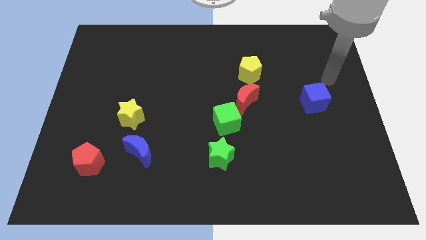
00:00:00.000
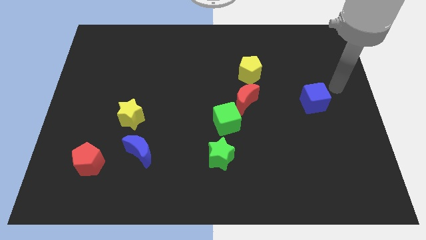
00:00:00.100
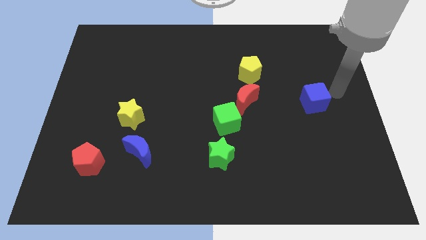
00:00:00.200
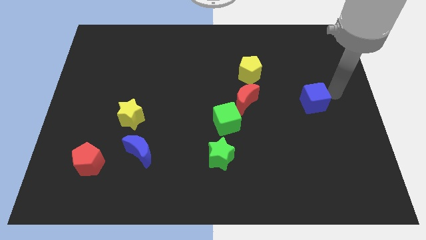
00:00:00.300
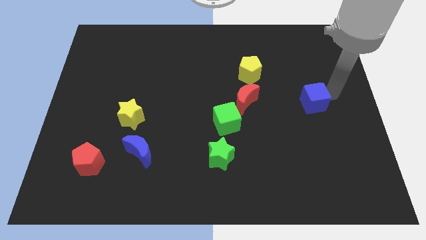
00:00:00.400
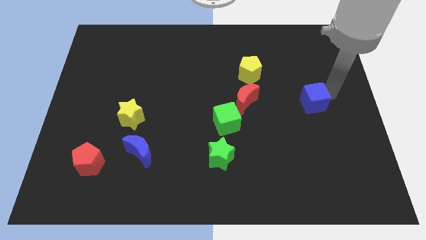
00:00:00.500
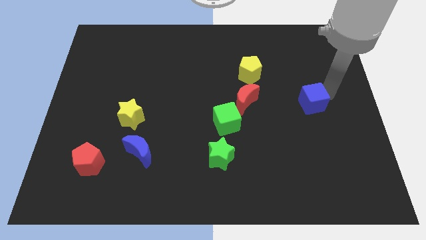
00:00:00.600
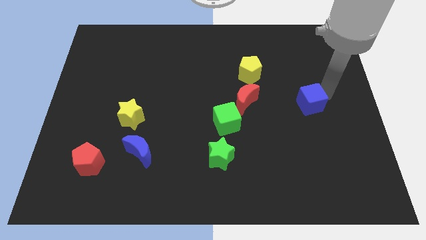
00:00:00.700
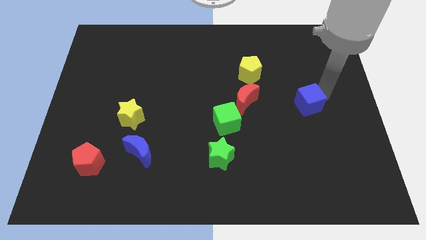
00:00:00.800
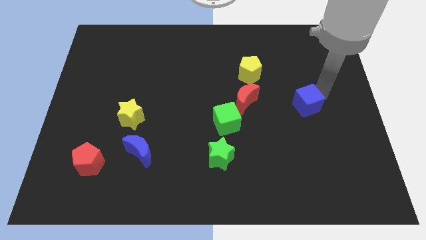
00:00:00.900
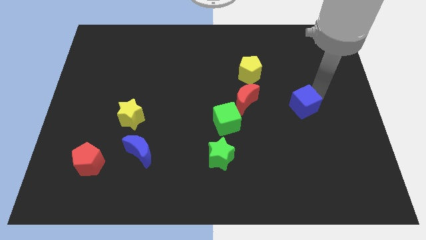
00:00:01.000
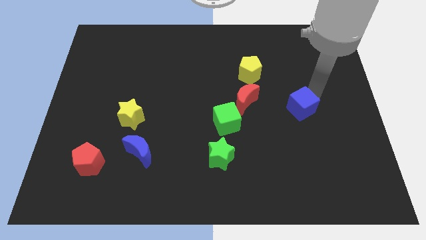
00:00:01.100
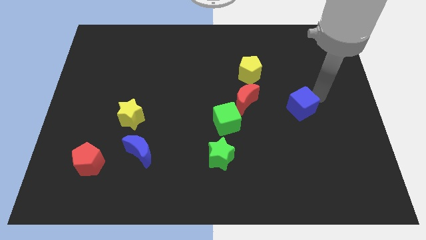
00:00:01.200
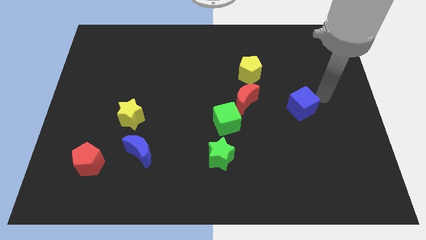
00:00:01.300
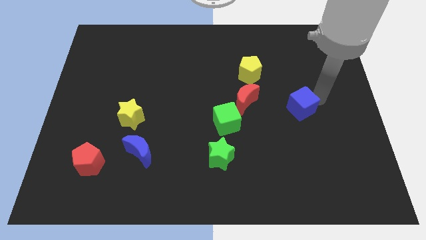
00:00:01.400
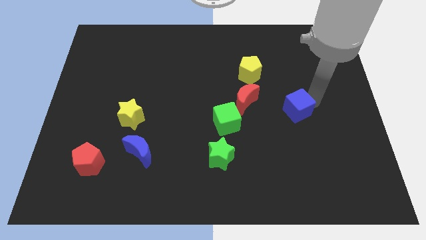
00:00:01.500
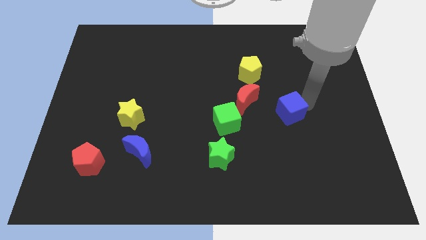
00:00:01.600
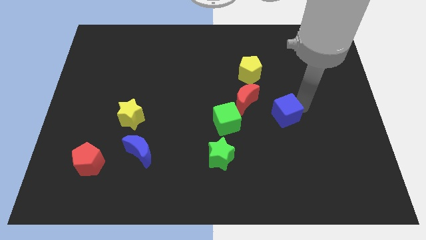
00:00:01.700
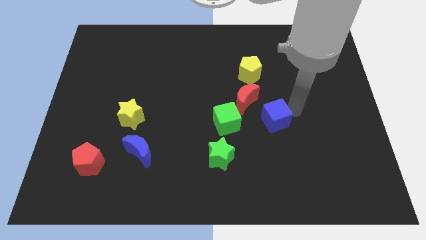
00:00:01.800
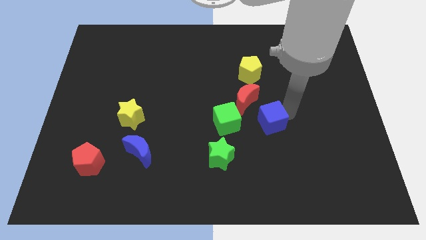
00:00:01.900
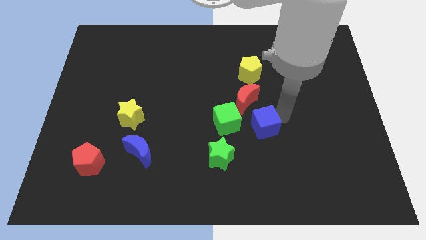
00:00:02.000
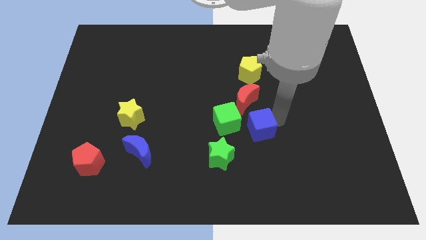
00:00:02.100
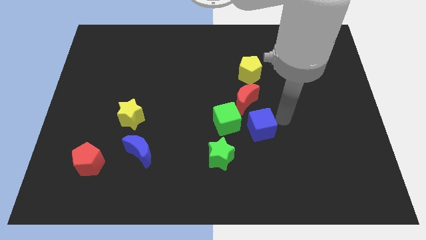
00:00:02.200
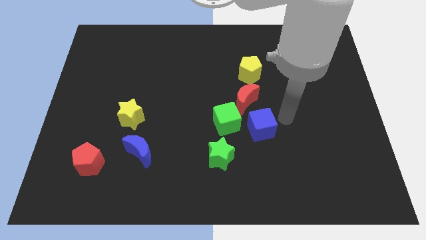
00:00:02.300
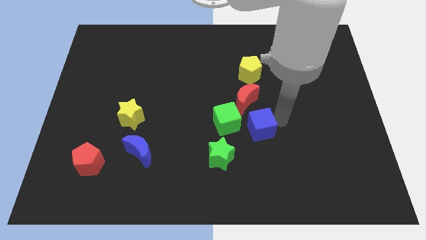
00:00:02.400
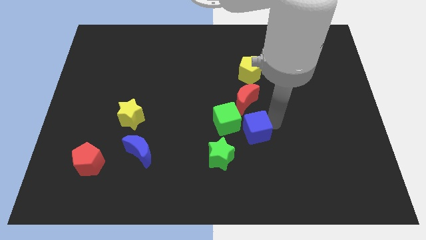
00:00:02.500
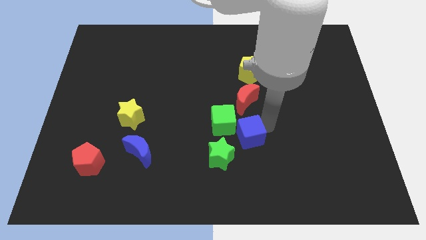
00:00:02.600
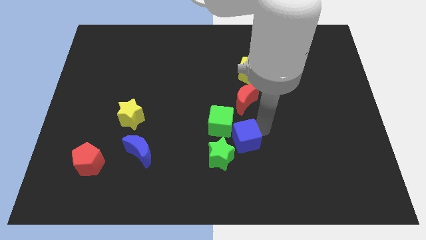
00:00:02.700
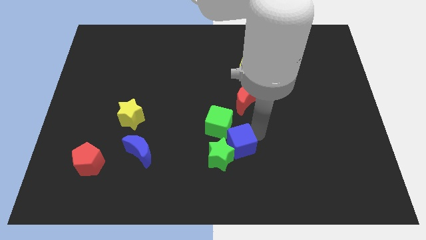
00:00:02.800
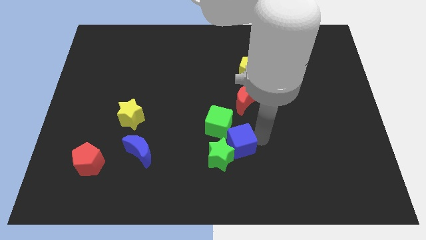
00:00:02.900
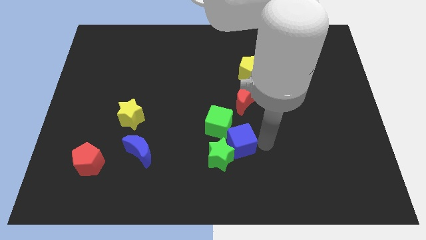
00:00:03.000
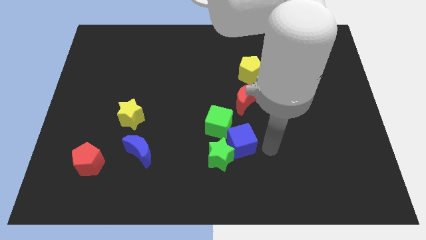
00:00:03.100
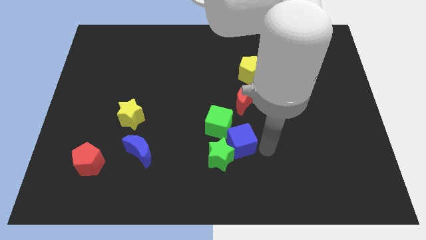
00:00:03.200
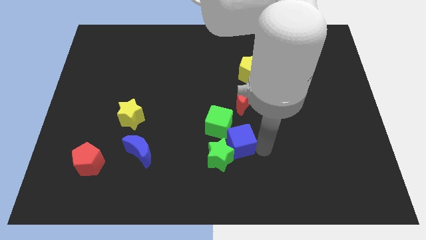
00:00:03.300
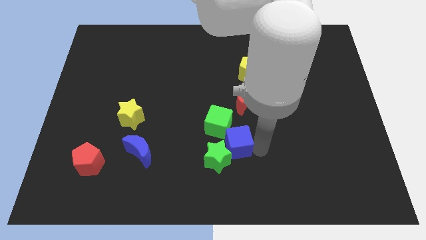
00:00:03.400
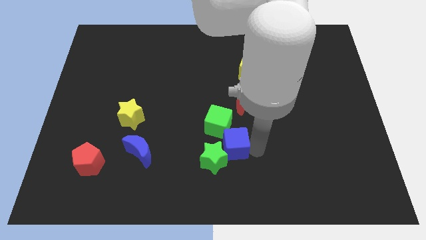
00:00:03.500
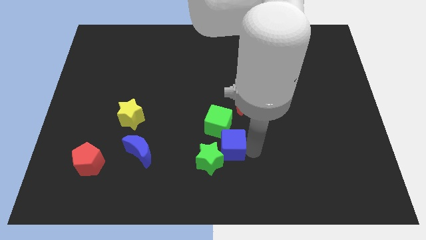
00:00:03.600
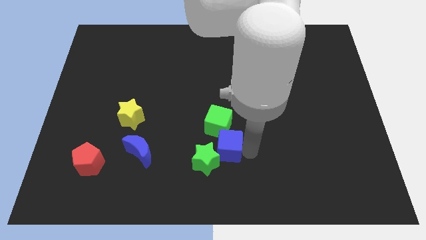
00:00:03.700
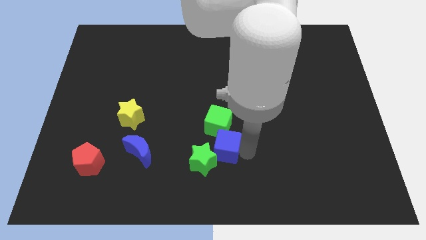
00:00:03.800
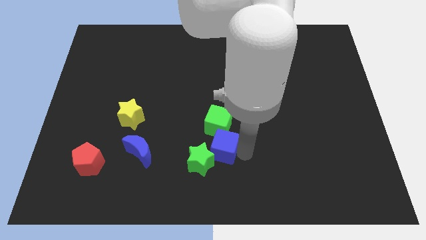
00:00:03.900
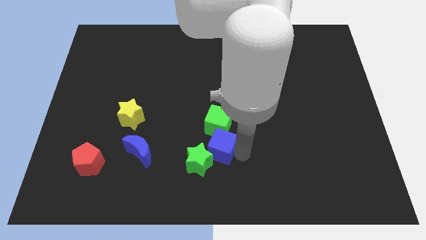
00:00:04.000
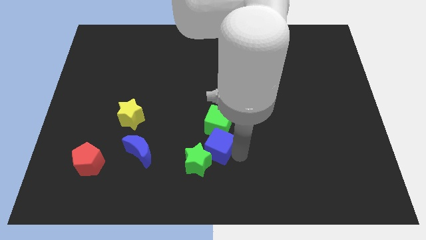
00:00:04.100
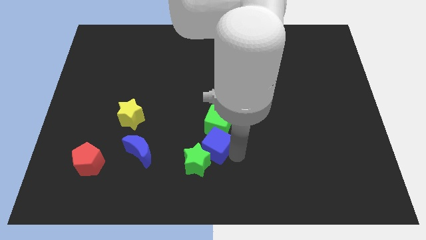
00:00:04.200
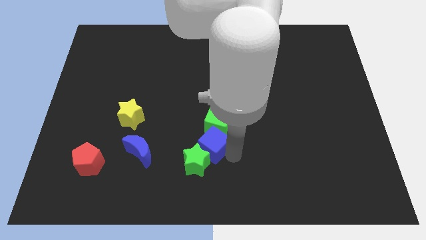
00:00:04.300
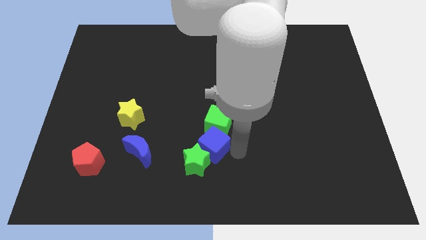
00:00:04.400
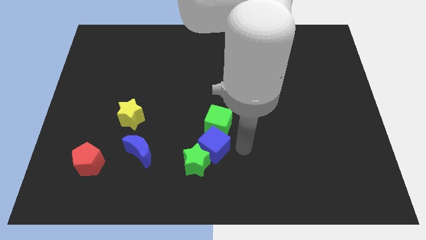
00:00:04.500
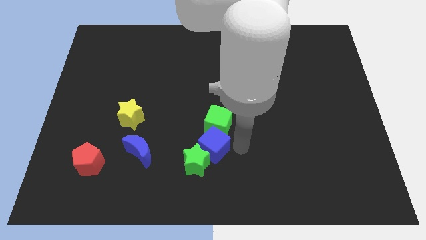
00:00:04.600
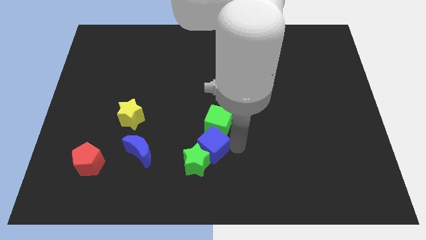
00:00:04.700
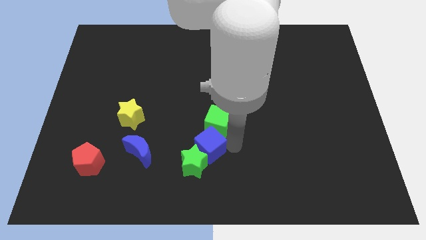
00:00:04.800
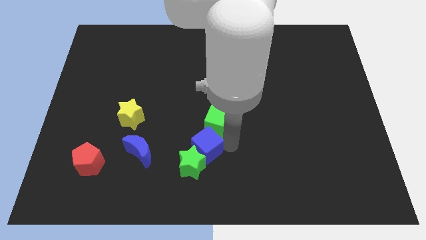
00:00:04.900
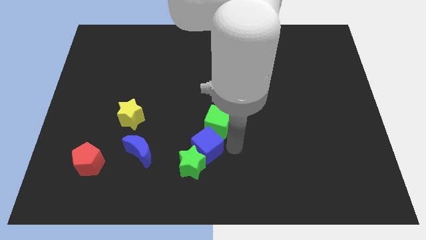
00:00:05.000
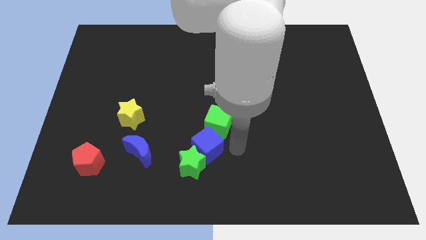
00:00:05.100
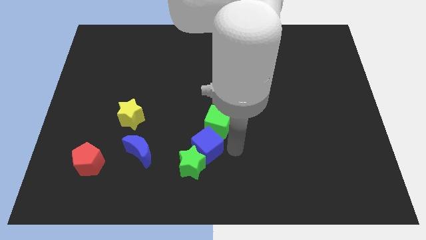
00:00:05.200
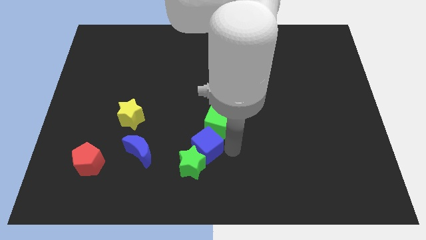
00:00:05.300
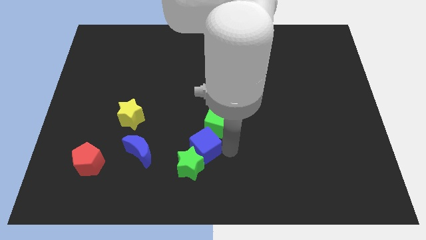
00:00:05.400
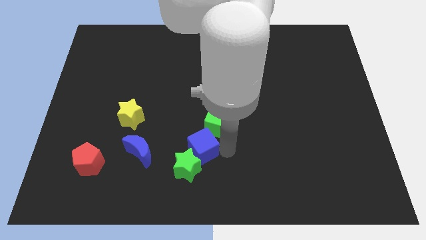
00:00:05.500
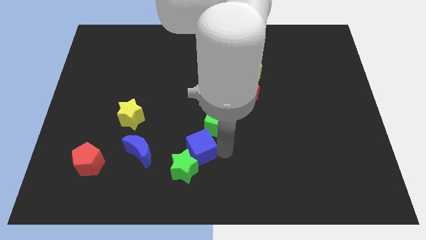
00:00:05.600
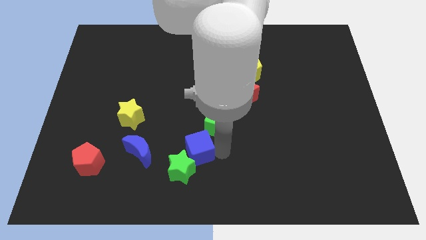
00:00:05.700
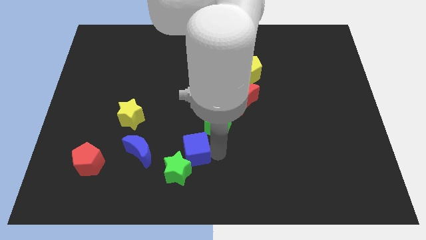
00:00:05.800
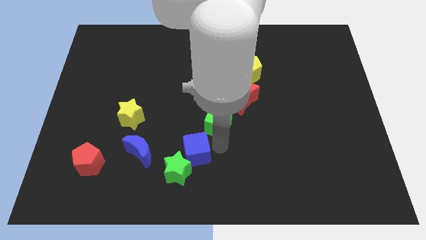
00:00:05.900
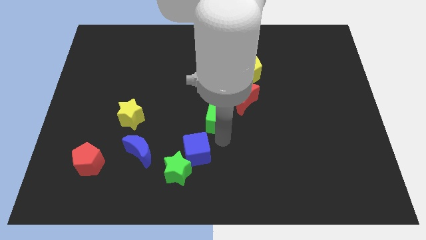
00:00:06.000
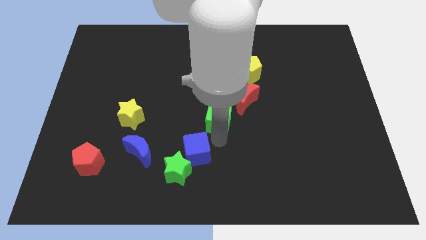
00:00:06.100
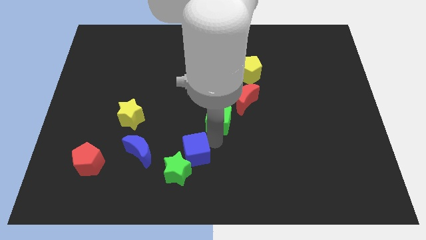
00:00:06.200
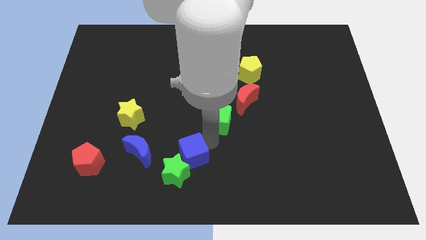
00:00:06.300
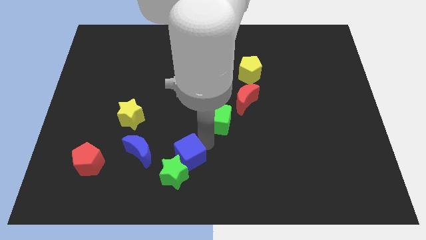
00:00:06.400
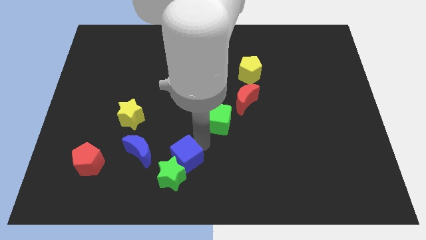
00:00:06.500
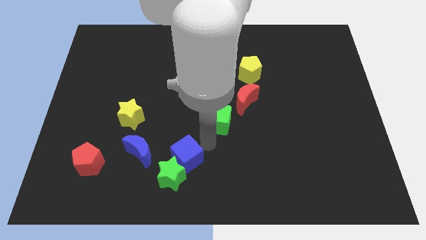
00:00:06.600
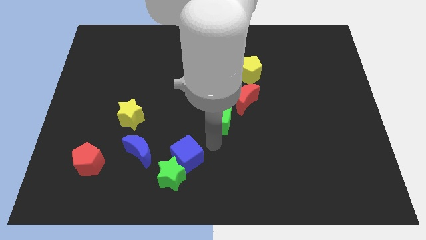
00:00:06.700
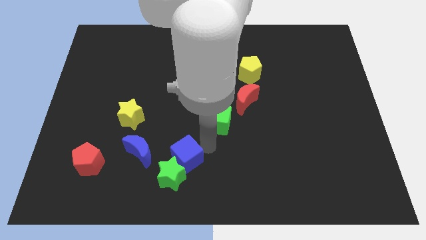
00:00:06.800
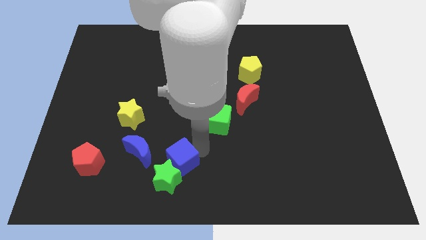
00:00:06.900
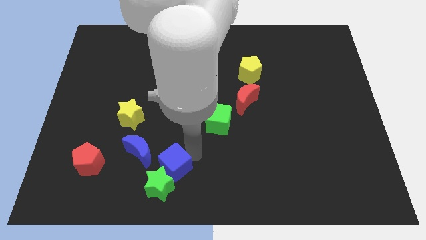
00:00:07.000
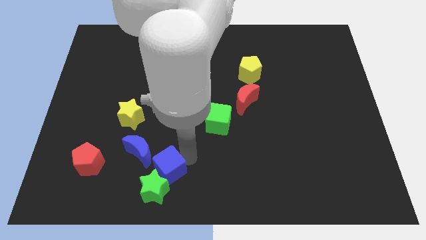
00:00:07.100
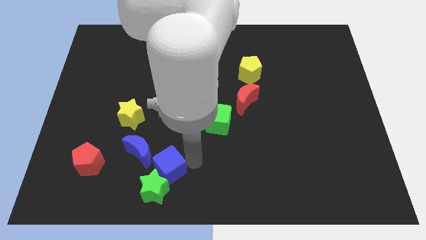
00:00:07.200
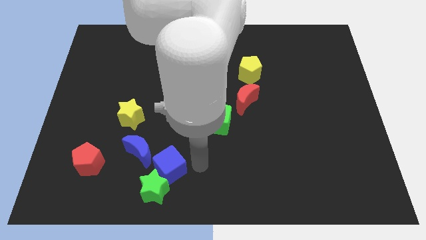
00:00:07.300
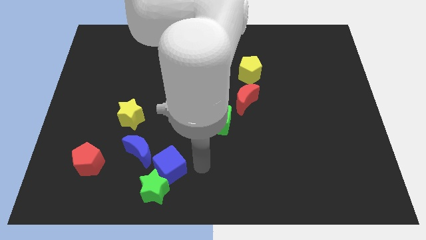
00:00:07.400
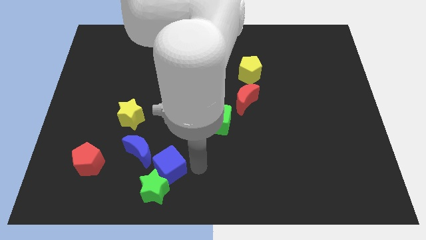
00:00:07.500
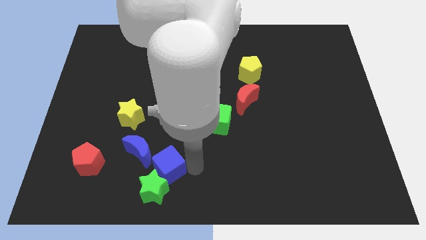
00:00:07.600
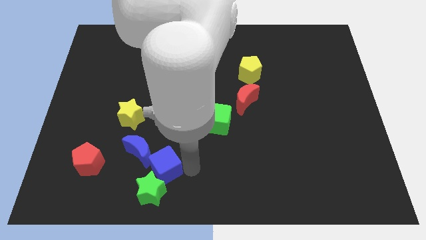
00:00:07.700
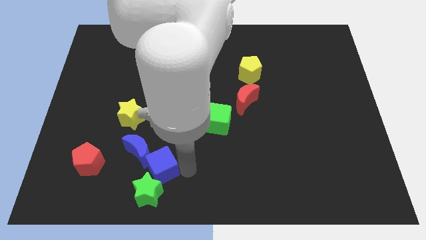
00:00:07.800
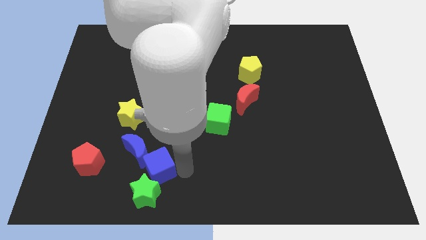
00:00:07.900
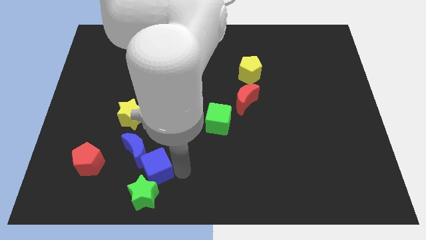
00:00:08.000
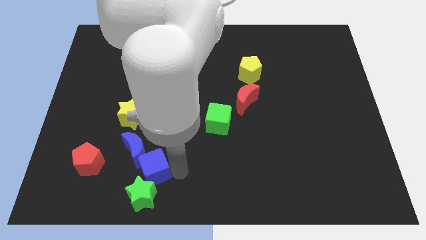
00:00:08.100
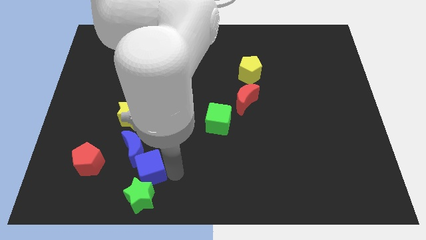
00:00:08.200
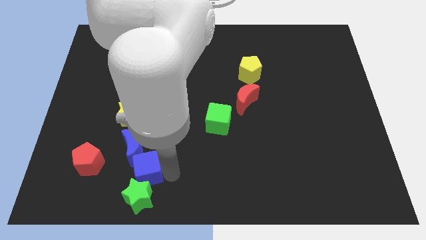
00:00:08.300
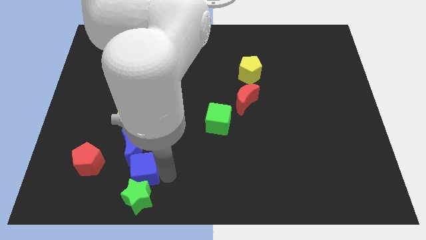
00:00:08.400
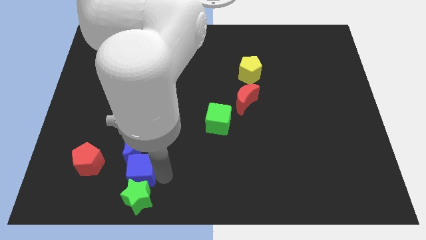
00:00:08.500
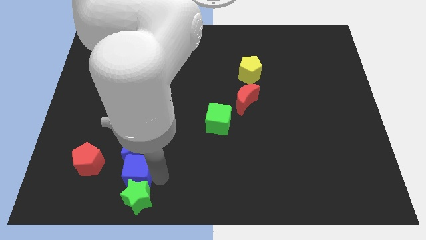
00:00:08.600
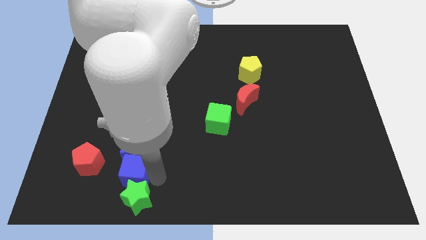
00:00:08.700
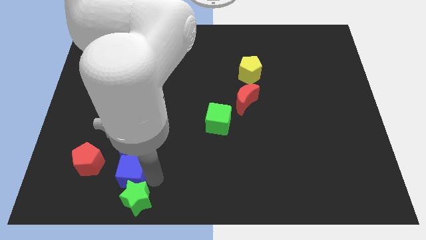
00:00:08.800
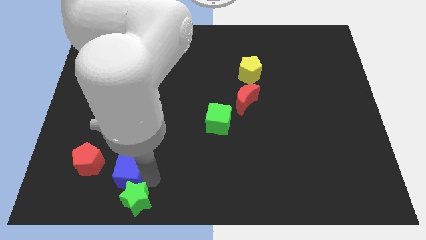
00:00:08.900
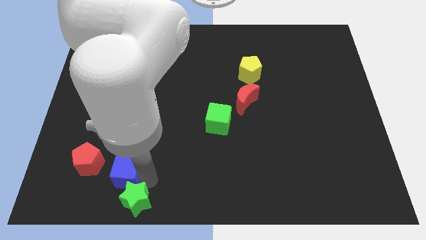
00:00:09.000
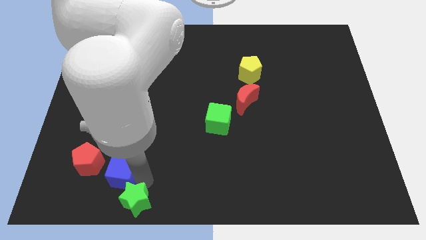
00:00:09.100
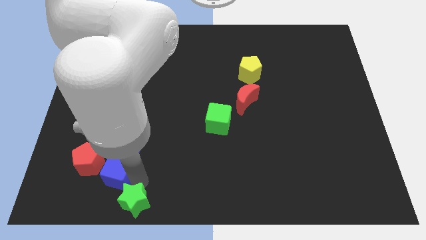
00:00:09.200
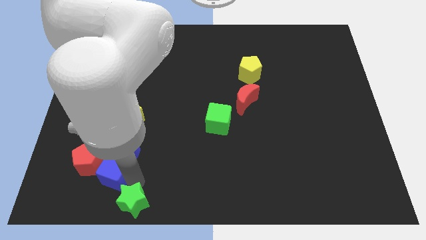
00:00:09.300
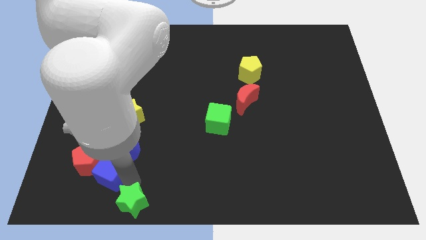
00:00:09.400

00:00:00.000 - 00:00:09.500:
move the blue cube towards the red pentagon
